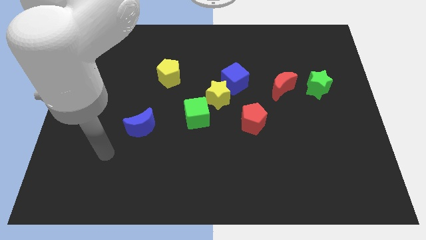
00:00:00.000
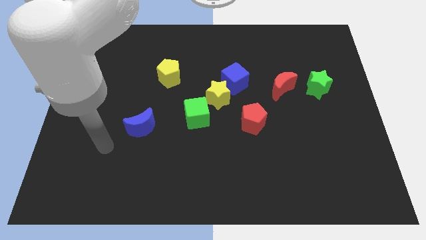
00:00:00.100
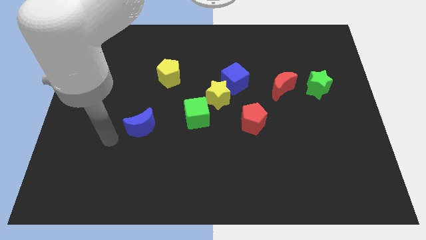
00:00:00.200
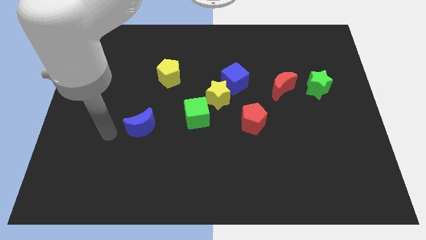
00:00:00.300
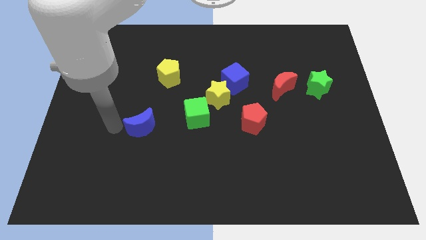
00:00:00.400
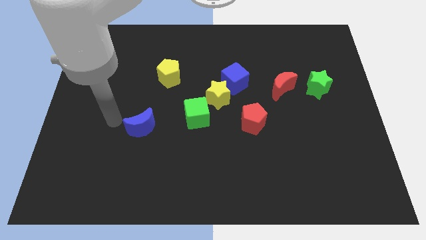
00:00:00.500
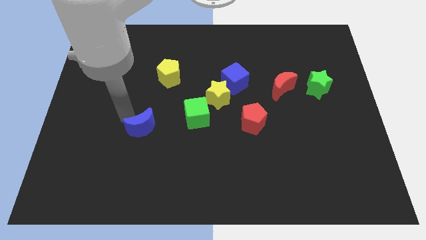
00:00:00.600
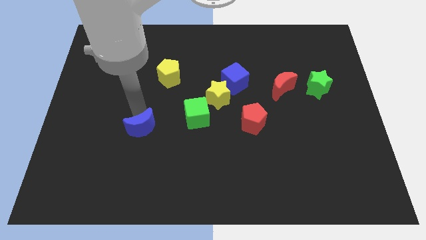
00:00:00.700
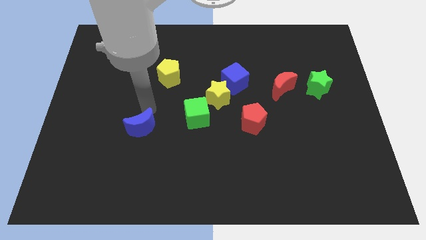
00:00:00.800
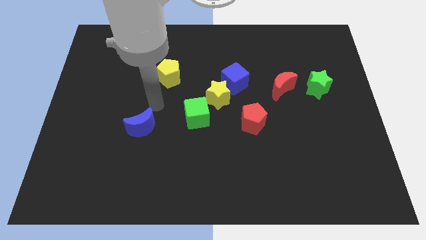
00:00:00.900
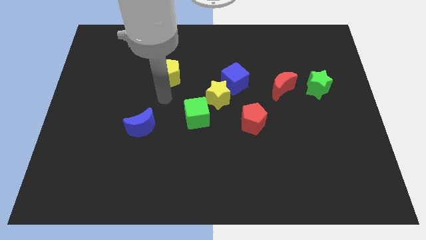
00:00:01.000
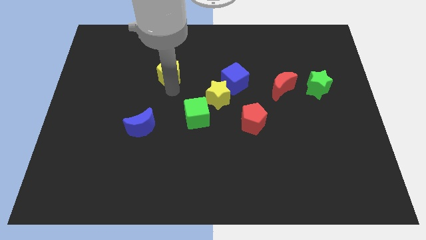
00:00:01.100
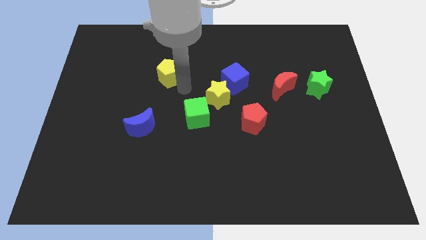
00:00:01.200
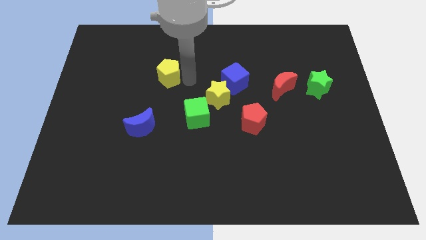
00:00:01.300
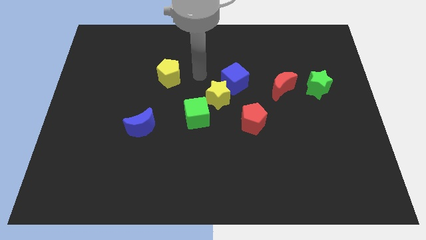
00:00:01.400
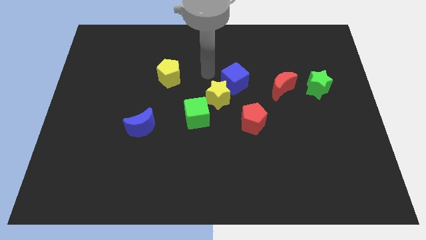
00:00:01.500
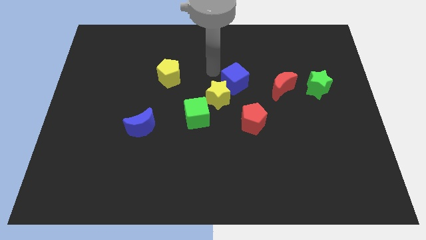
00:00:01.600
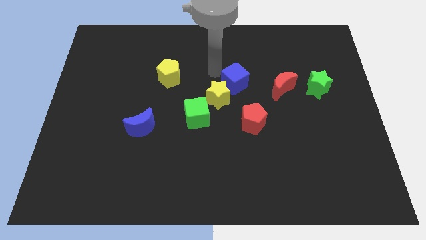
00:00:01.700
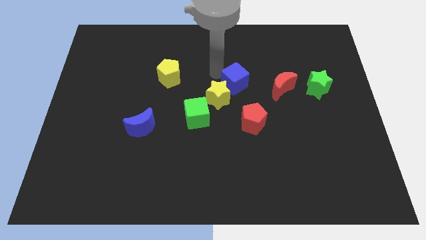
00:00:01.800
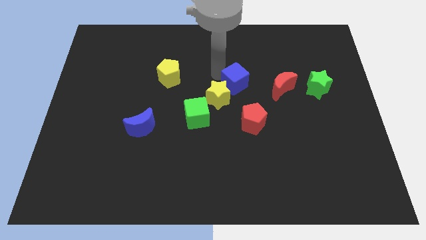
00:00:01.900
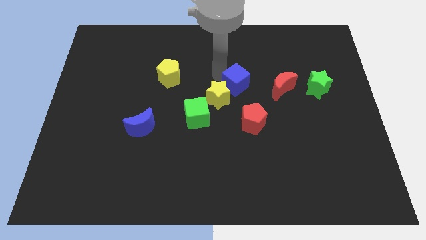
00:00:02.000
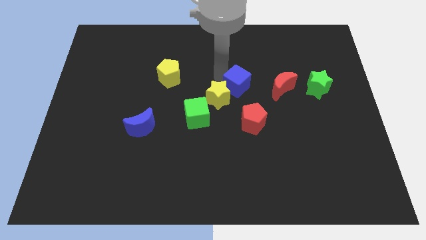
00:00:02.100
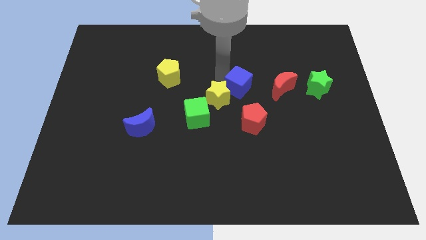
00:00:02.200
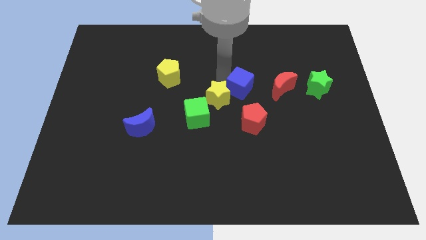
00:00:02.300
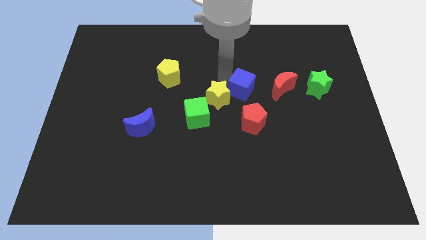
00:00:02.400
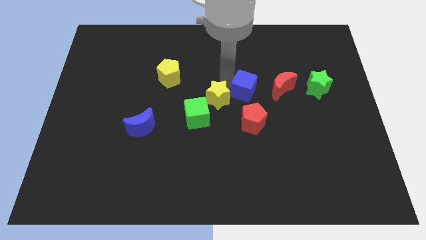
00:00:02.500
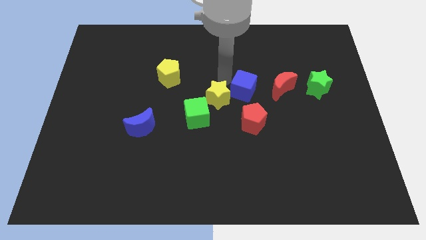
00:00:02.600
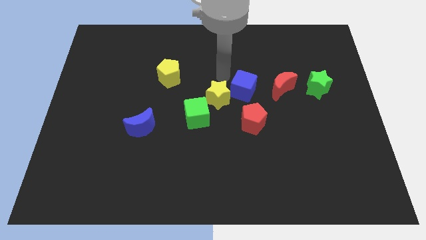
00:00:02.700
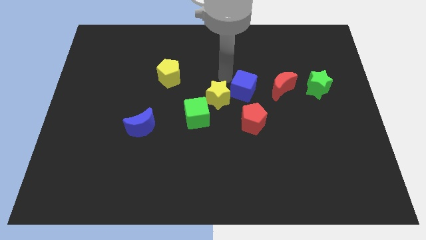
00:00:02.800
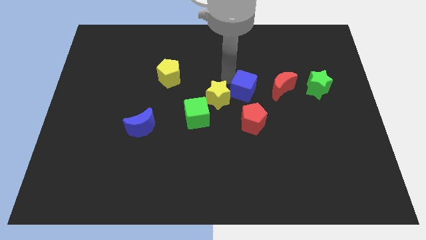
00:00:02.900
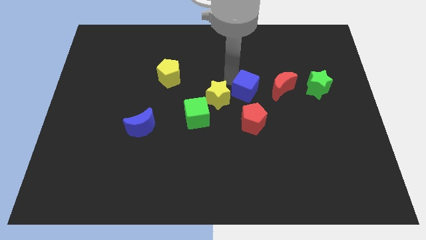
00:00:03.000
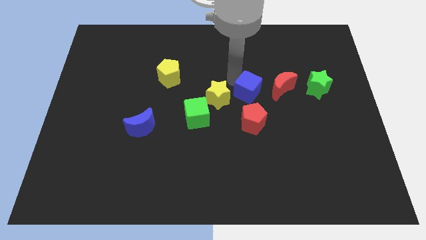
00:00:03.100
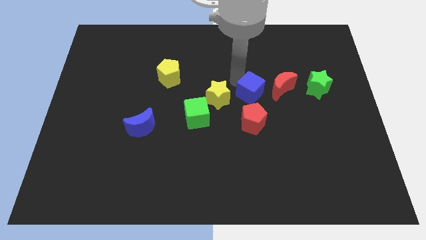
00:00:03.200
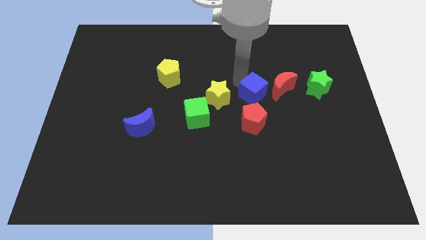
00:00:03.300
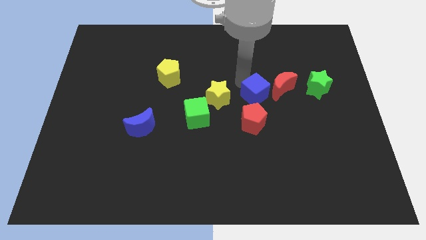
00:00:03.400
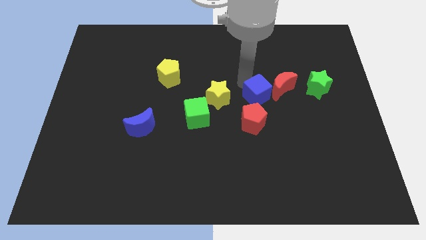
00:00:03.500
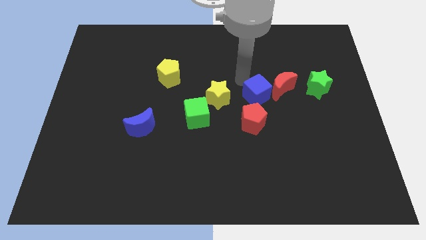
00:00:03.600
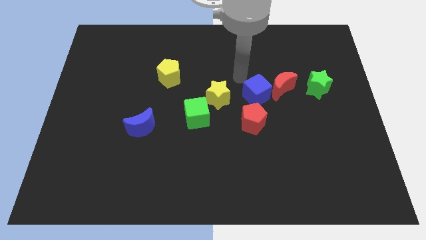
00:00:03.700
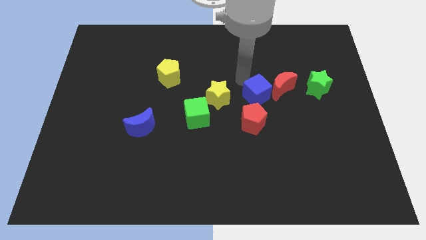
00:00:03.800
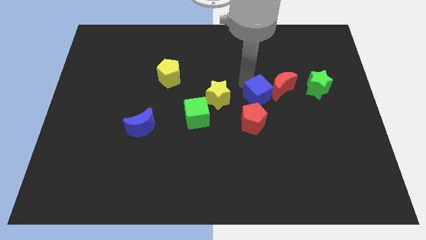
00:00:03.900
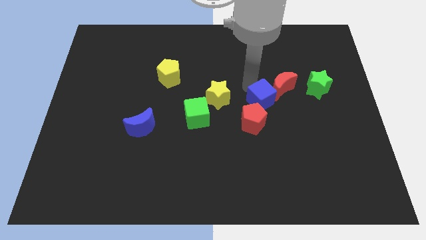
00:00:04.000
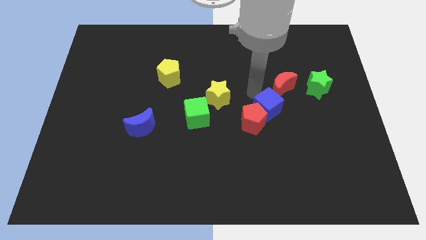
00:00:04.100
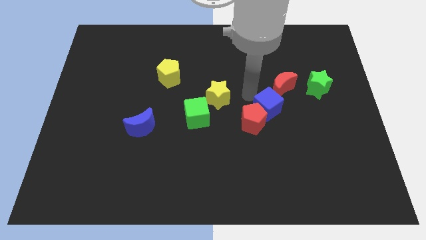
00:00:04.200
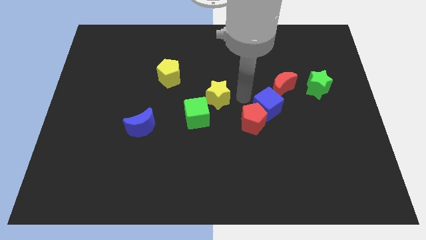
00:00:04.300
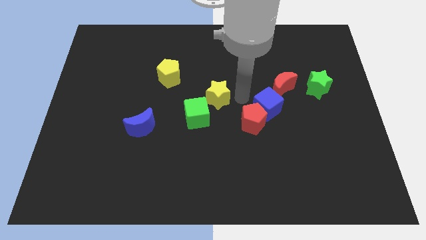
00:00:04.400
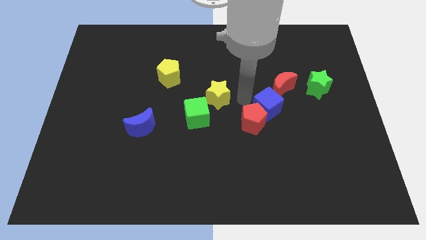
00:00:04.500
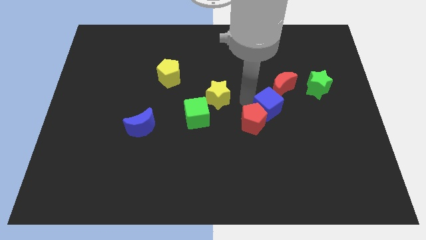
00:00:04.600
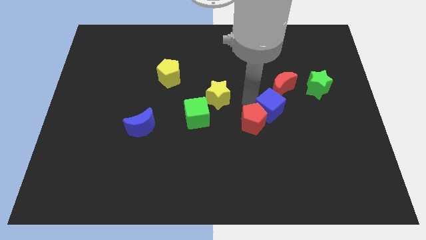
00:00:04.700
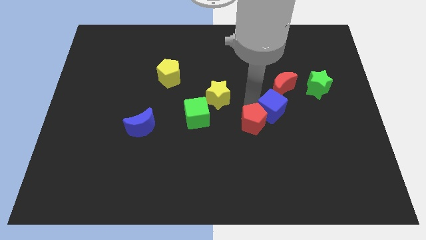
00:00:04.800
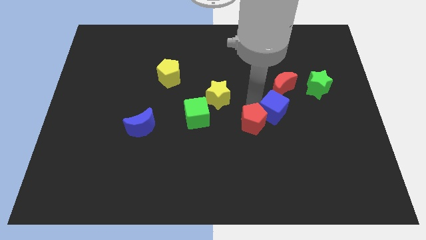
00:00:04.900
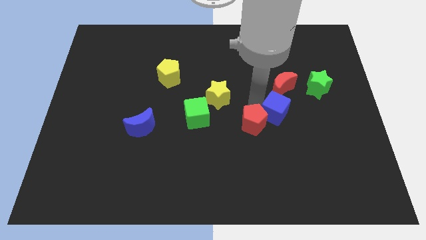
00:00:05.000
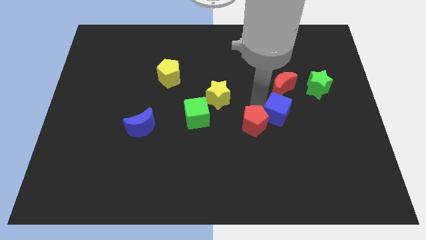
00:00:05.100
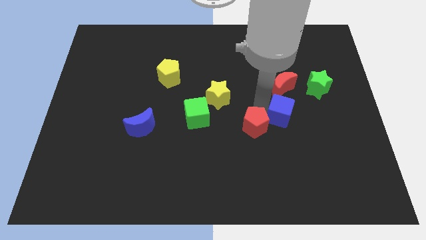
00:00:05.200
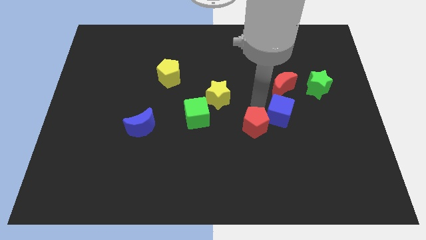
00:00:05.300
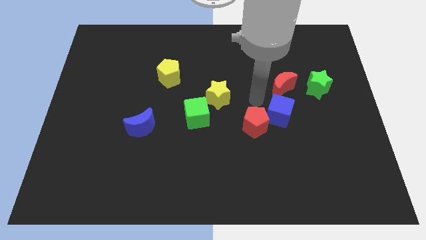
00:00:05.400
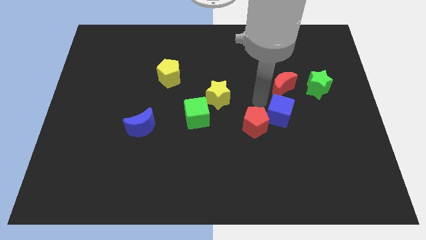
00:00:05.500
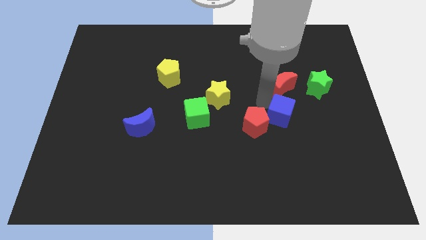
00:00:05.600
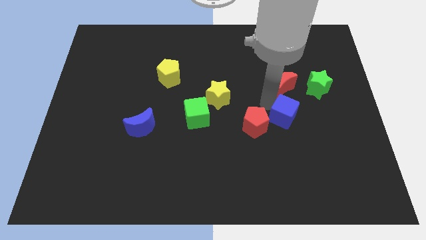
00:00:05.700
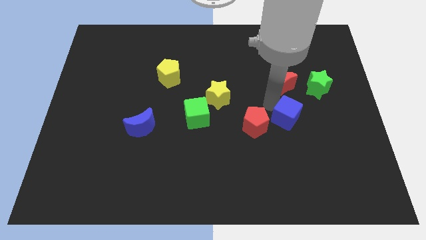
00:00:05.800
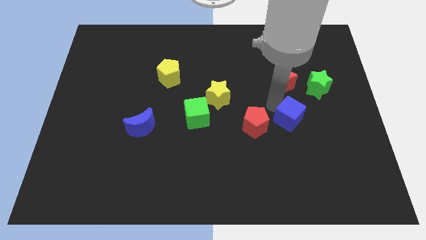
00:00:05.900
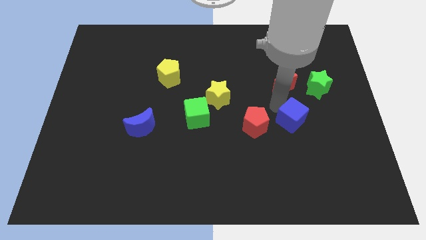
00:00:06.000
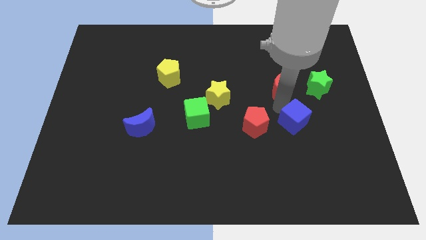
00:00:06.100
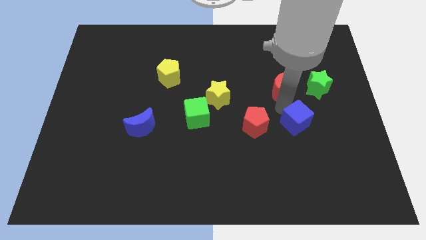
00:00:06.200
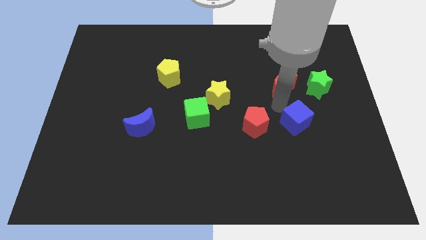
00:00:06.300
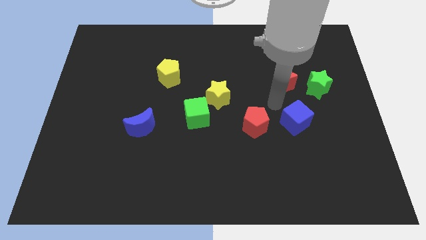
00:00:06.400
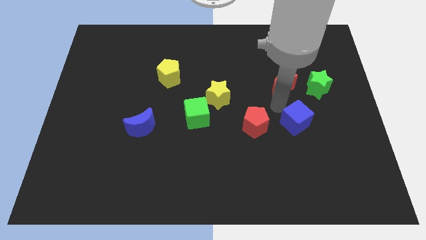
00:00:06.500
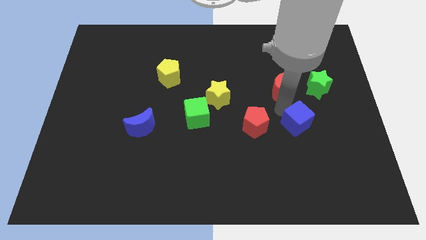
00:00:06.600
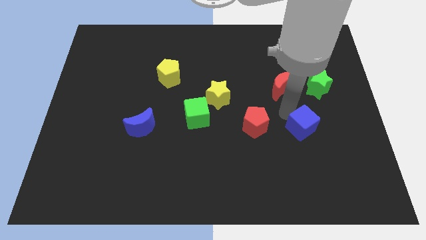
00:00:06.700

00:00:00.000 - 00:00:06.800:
slide the blue cube down and then right

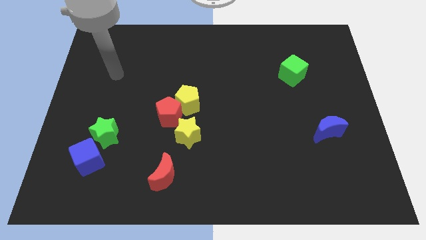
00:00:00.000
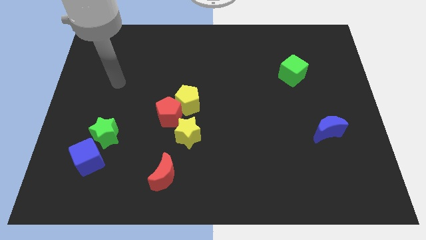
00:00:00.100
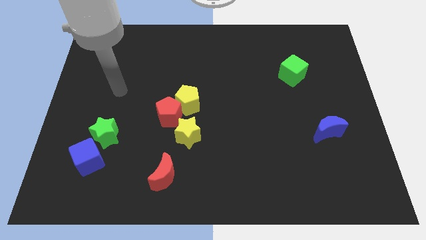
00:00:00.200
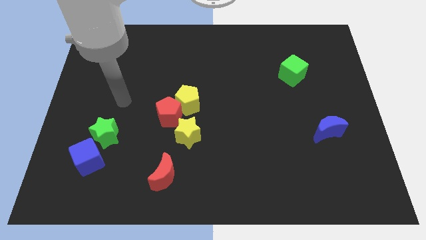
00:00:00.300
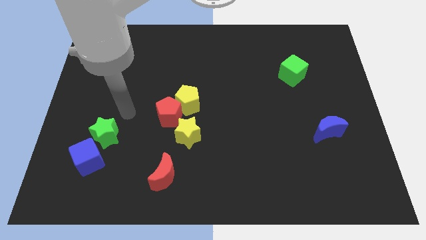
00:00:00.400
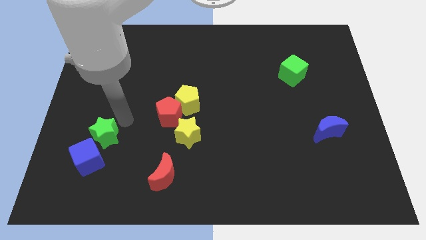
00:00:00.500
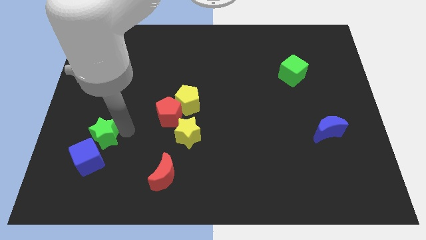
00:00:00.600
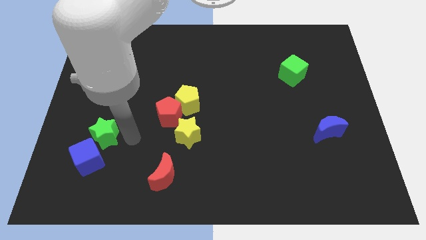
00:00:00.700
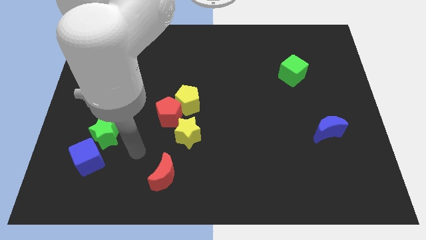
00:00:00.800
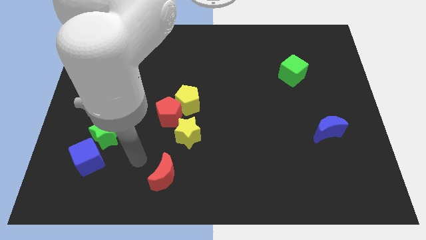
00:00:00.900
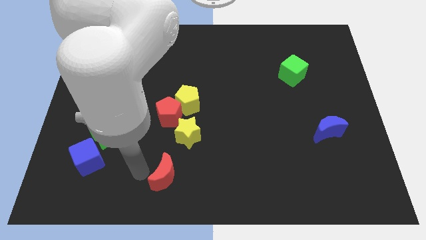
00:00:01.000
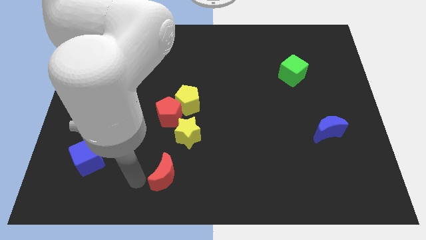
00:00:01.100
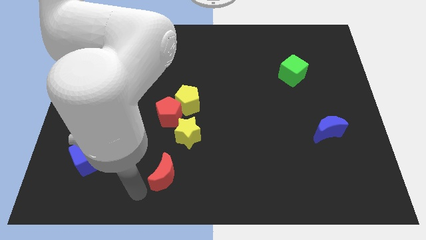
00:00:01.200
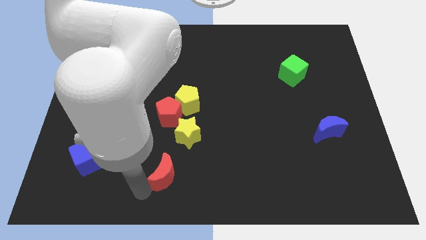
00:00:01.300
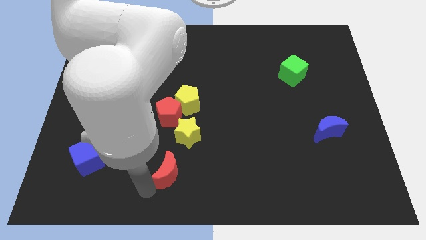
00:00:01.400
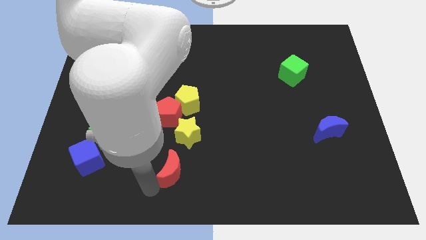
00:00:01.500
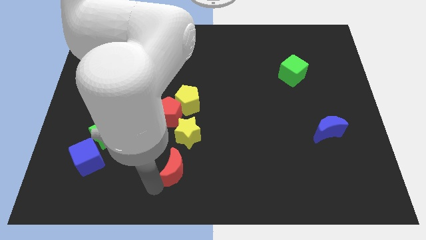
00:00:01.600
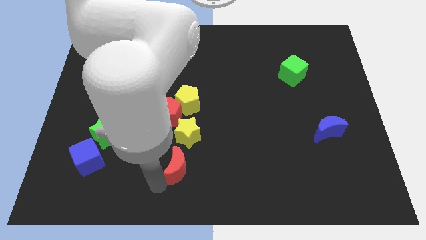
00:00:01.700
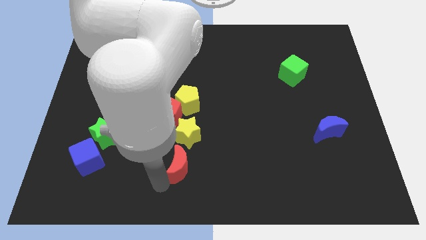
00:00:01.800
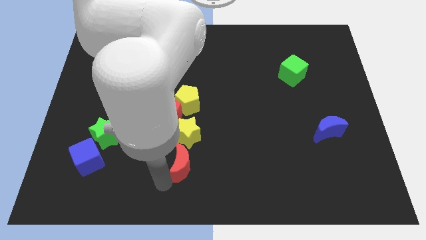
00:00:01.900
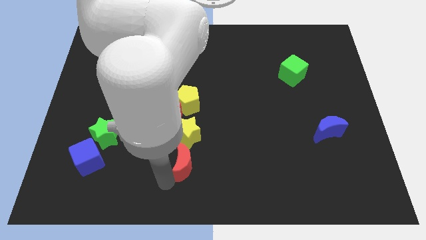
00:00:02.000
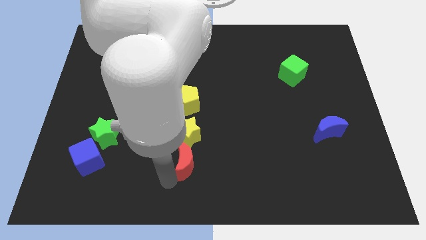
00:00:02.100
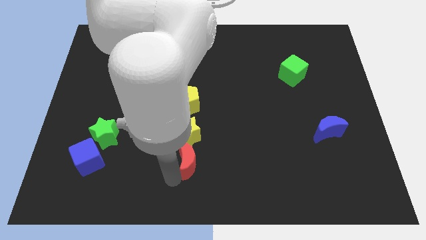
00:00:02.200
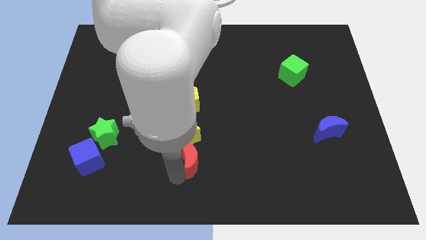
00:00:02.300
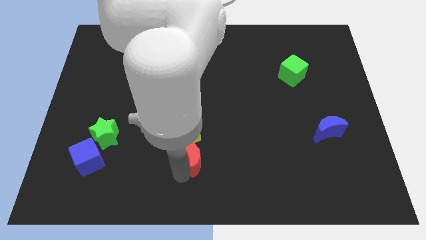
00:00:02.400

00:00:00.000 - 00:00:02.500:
slightly move the red moon diagonally upwards and right
